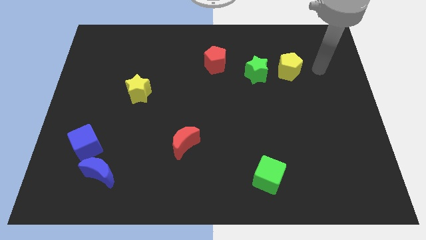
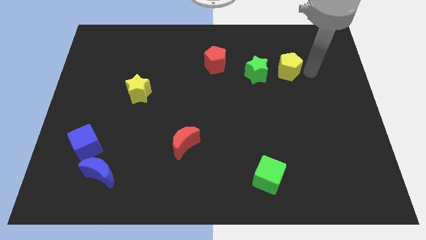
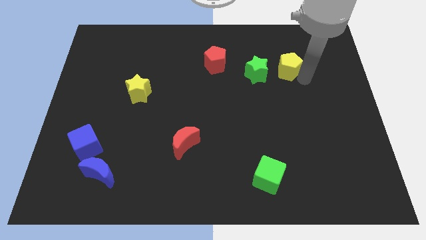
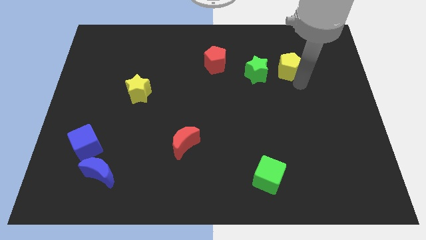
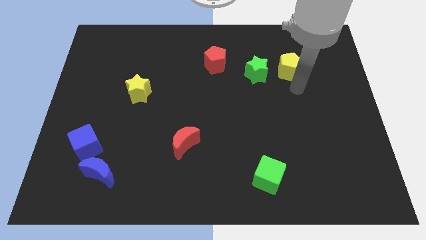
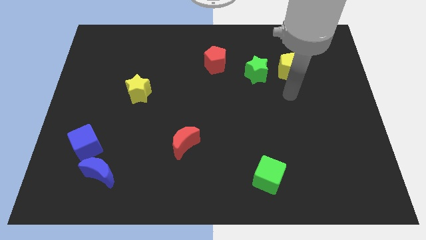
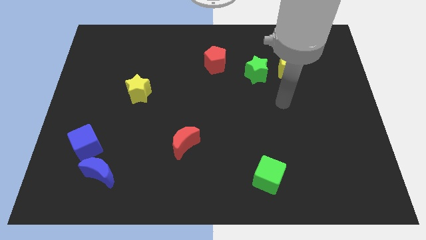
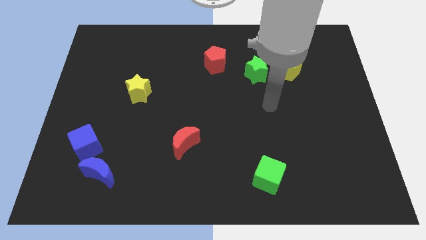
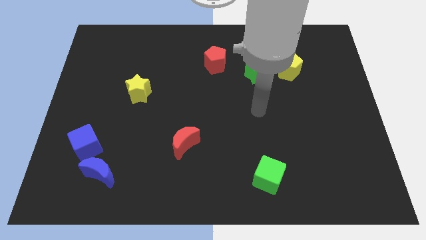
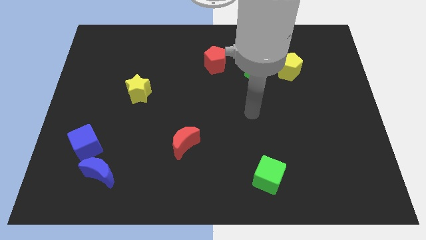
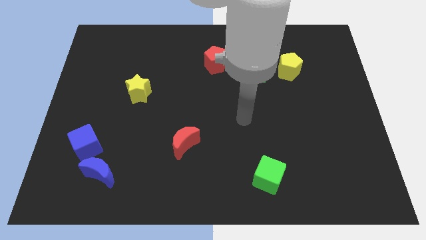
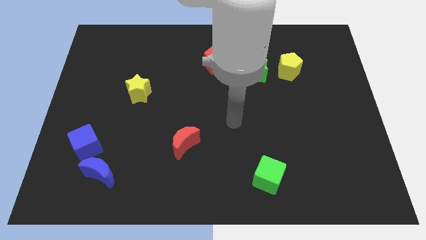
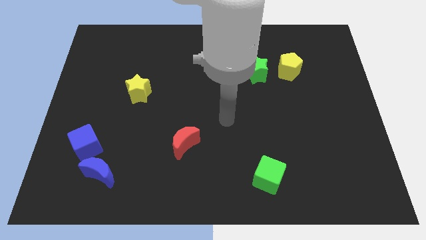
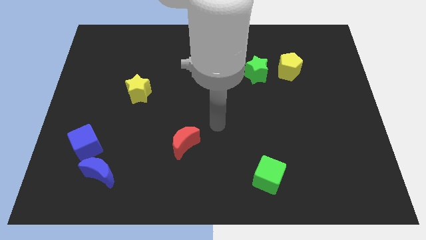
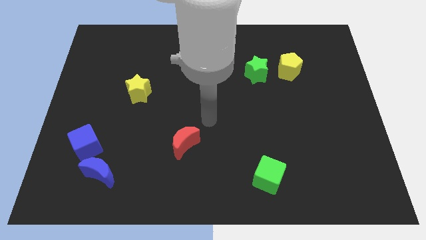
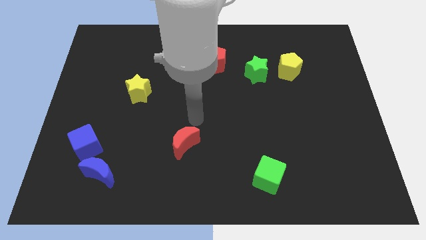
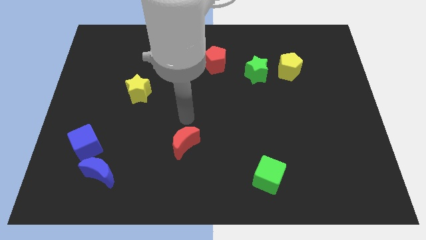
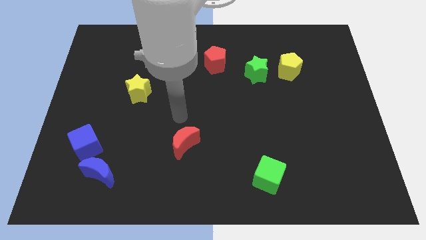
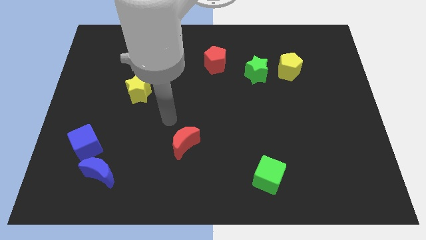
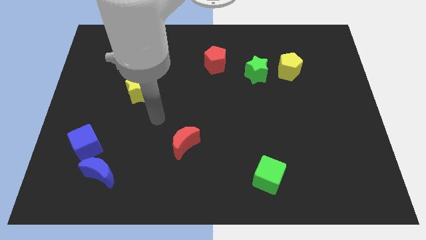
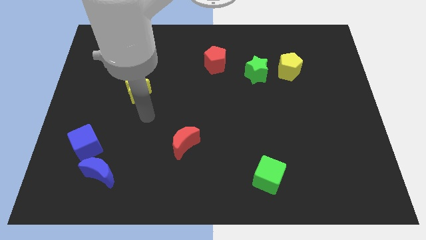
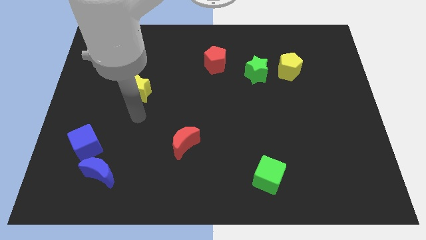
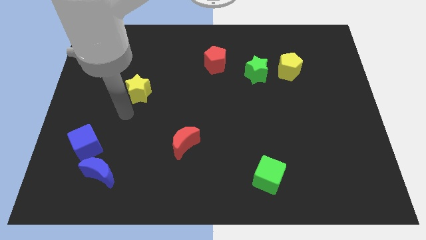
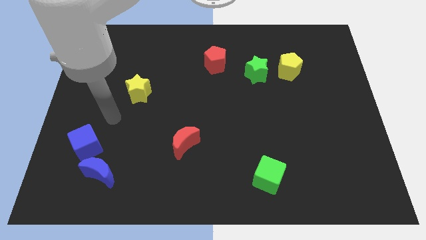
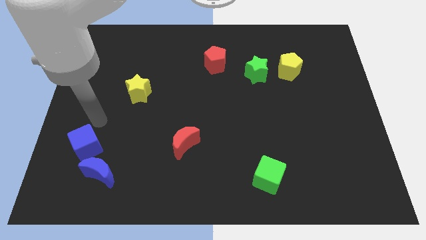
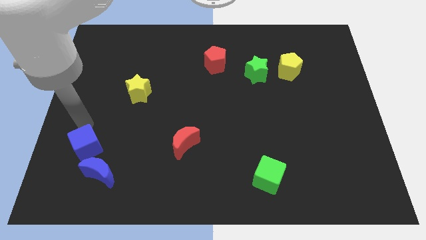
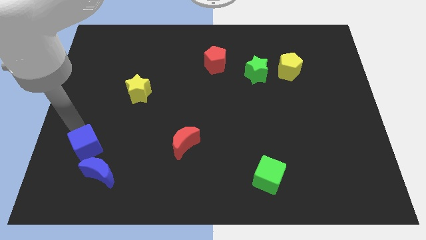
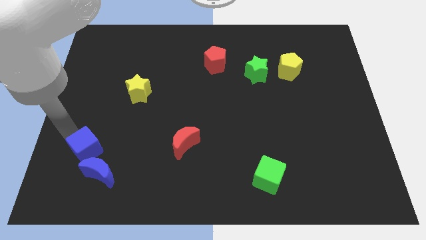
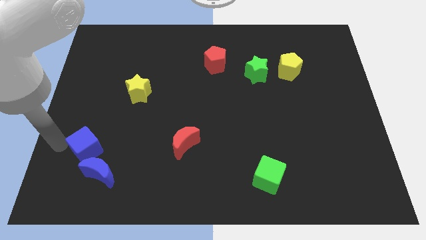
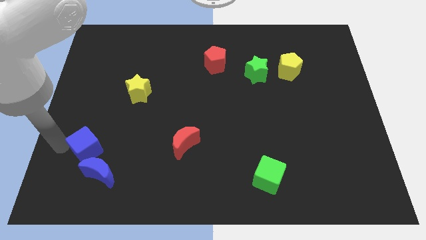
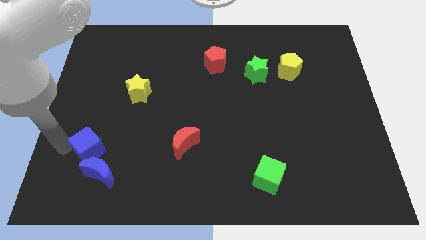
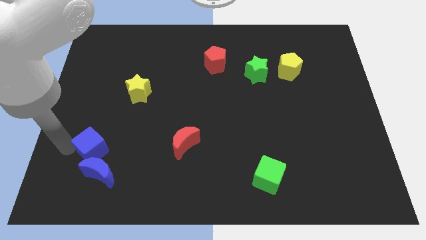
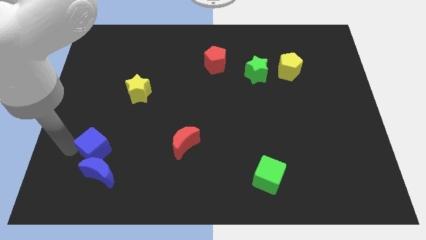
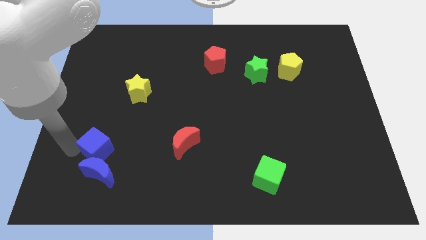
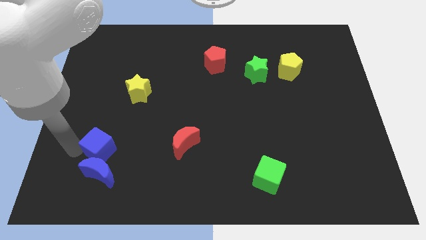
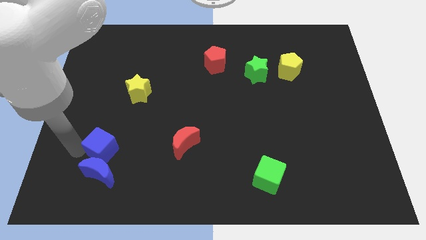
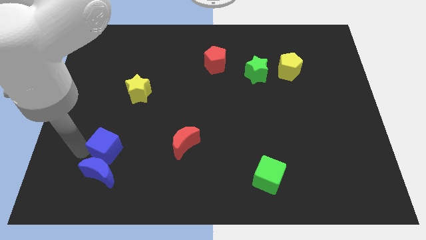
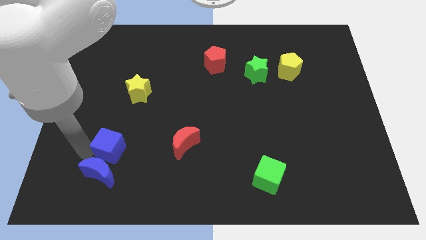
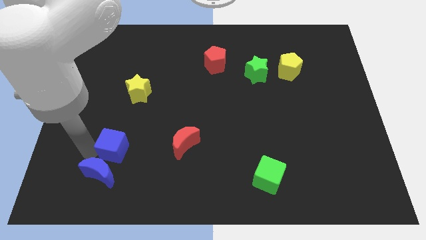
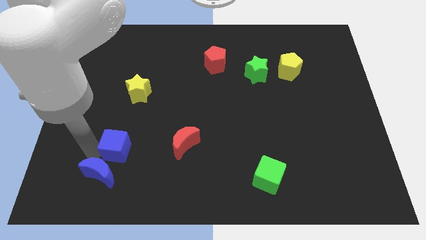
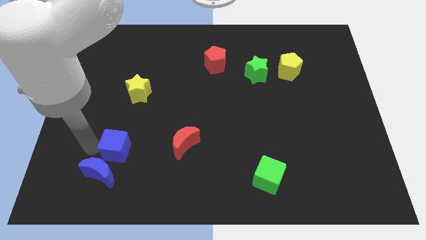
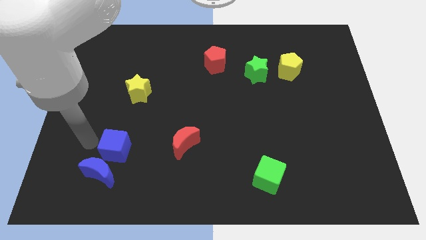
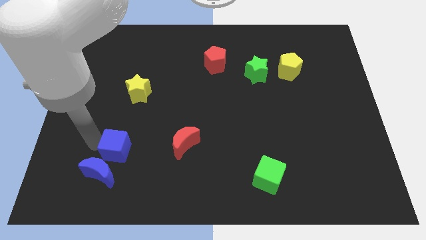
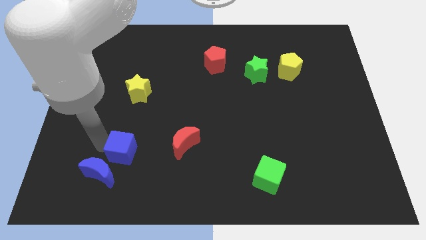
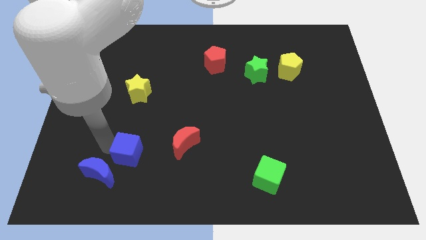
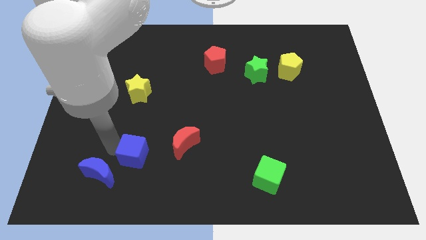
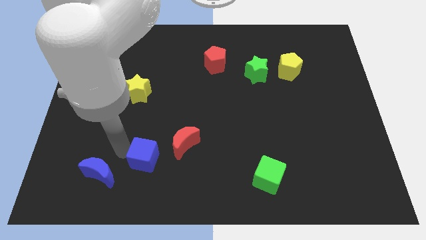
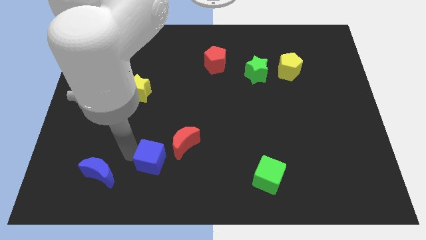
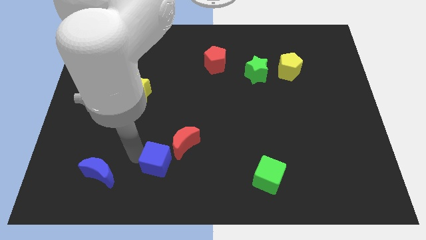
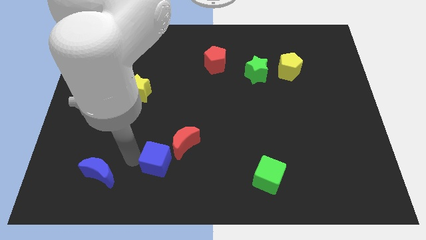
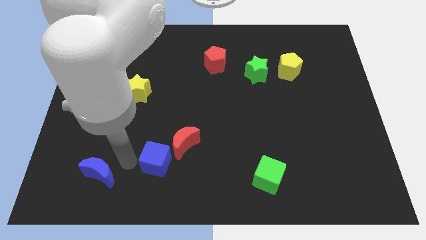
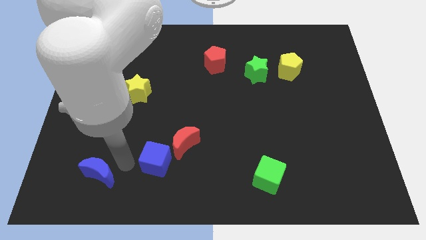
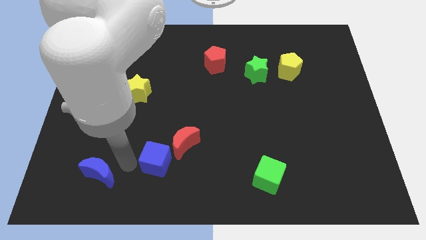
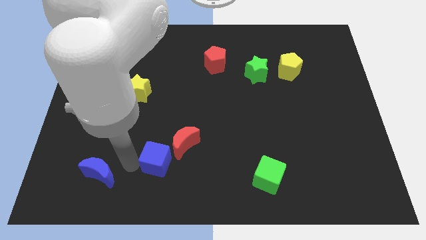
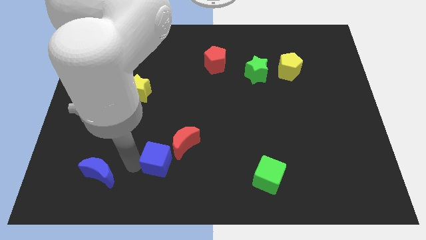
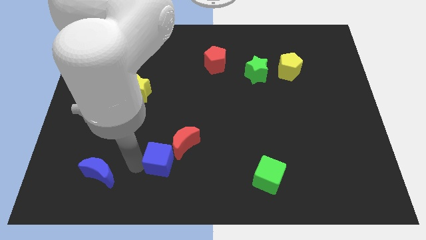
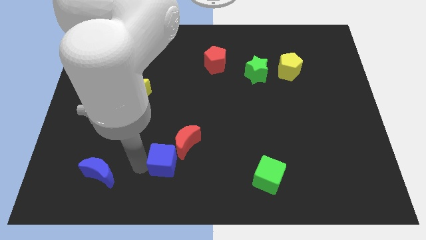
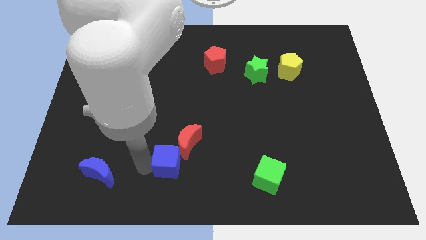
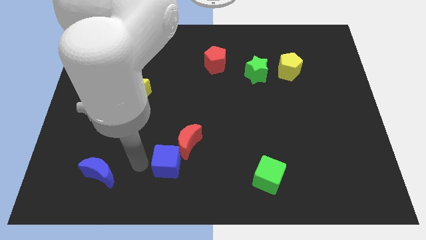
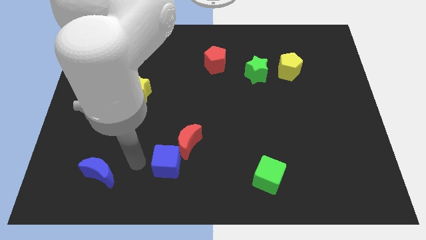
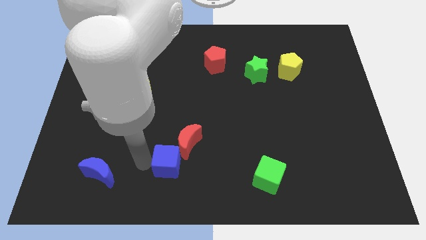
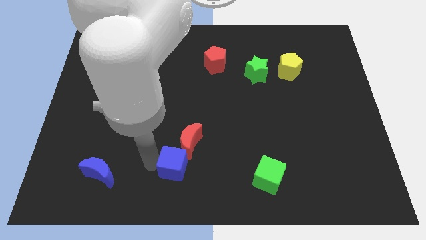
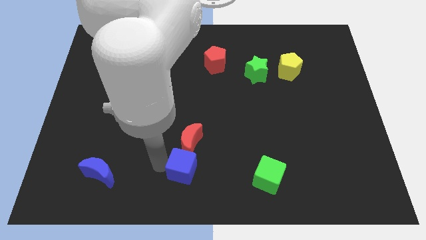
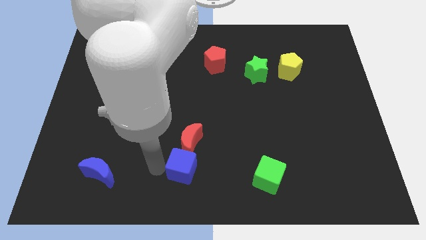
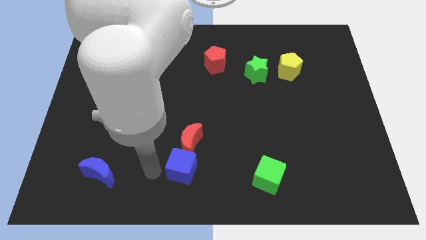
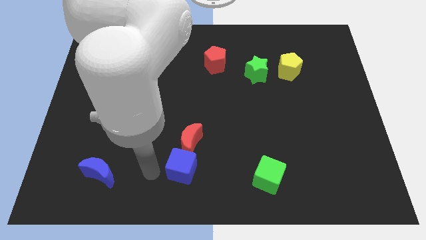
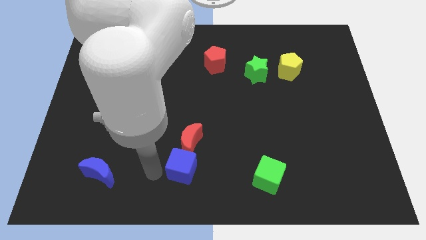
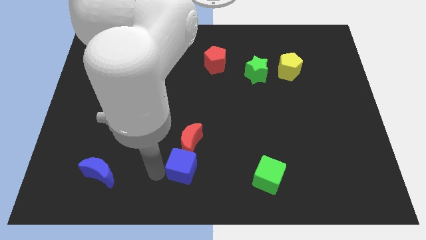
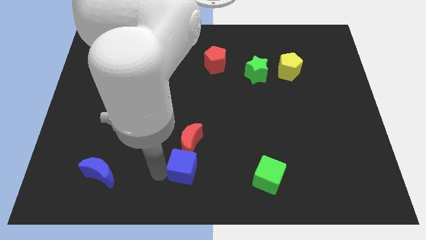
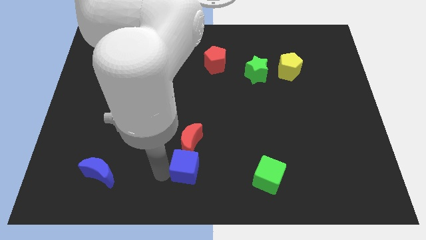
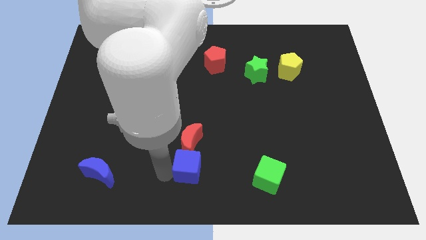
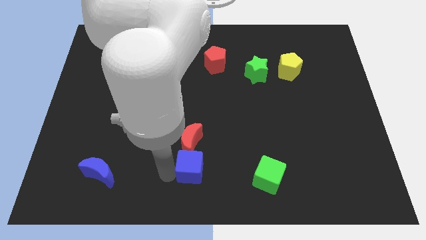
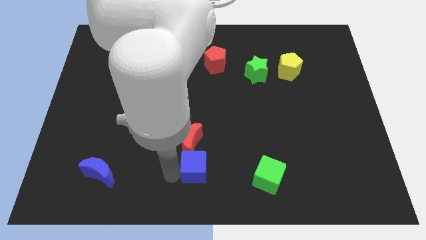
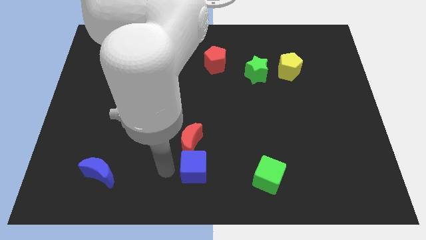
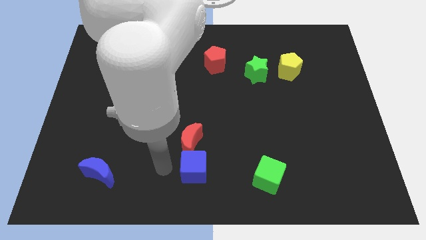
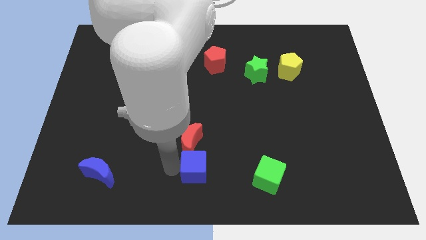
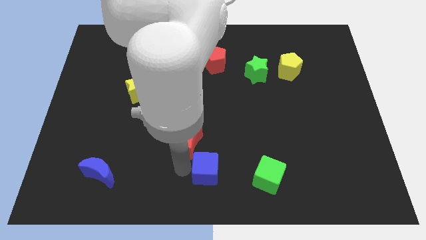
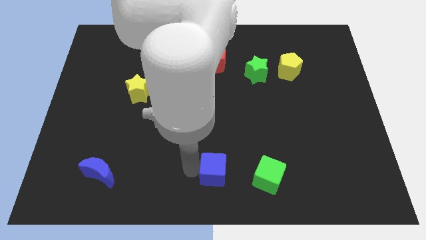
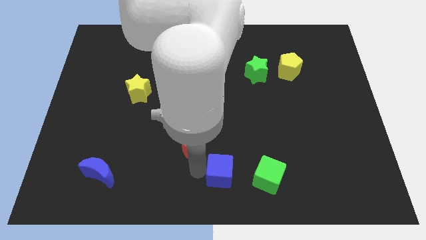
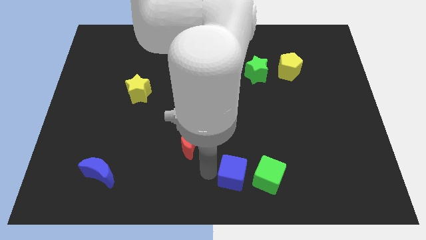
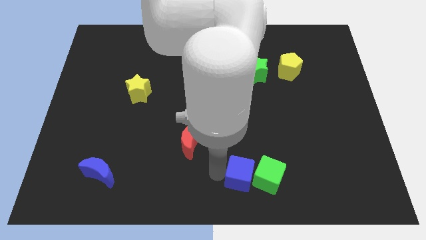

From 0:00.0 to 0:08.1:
move the blue cube next to the green cube
